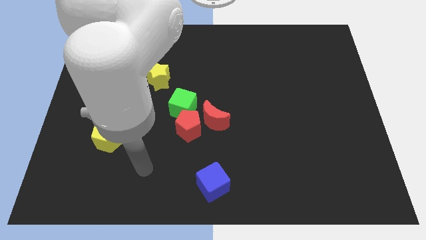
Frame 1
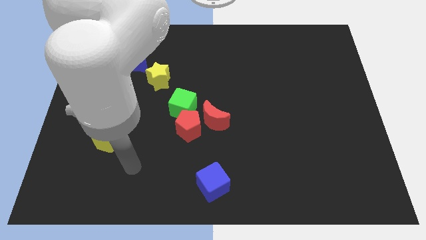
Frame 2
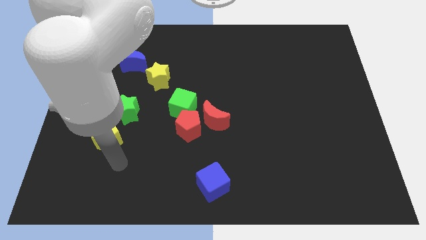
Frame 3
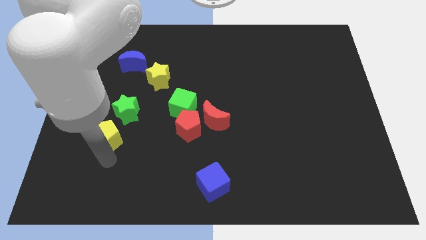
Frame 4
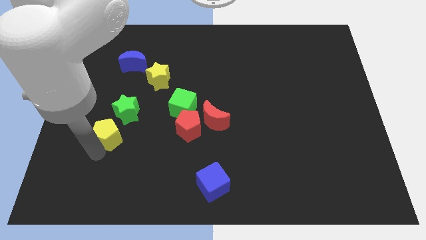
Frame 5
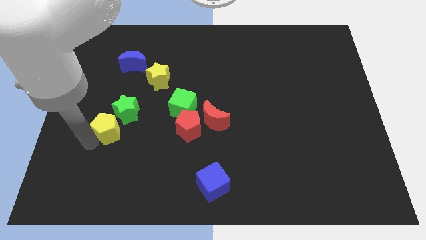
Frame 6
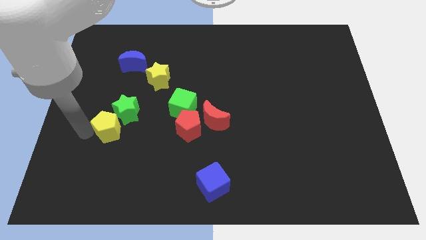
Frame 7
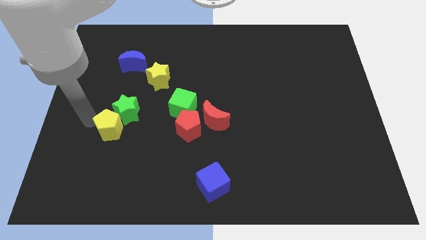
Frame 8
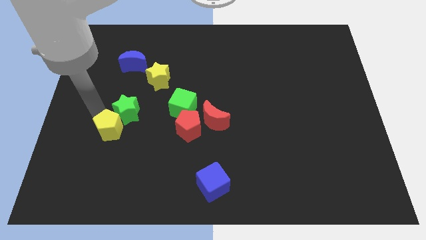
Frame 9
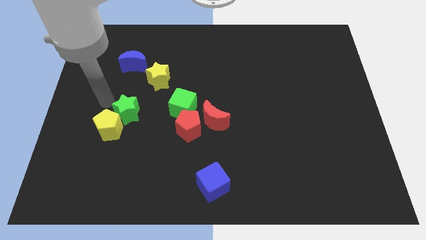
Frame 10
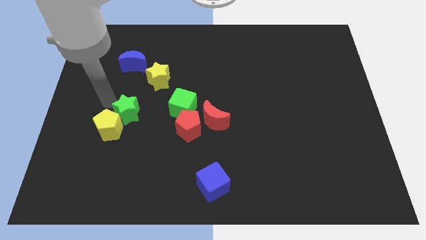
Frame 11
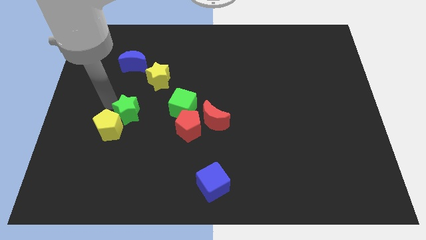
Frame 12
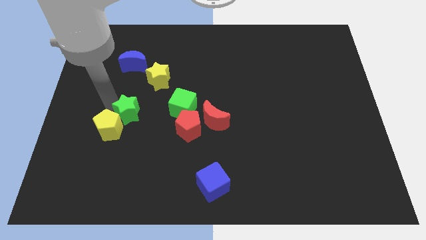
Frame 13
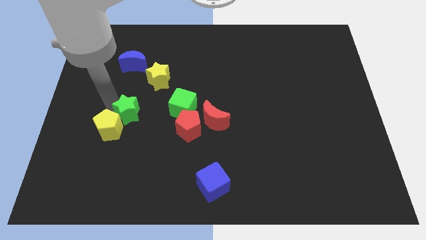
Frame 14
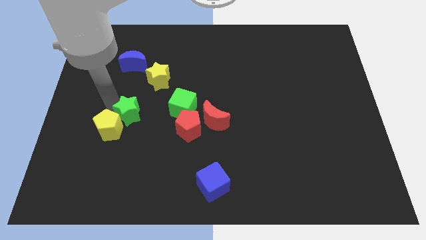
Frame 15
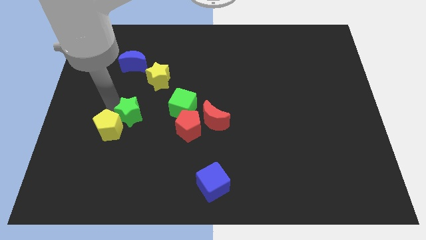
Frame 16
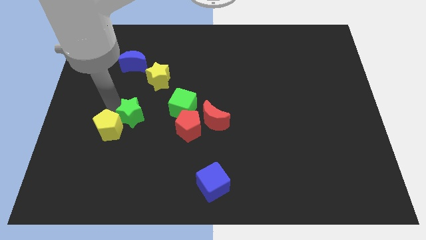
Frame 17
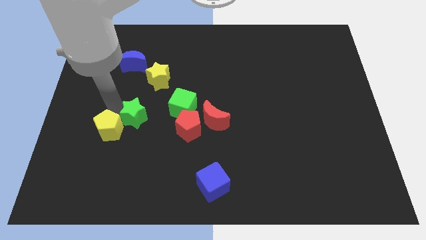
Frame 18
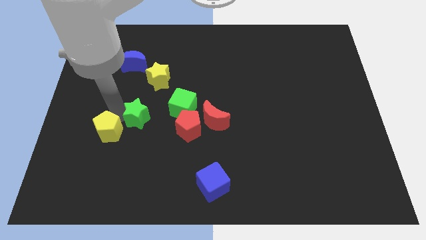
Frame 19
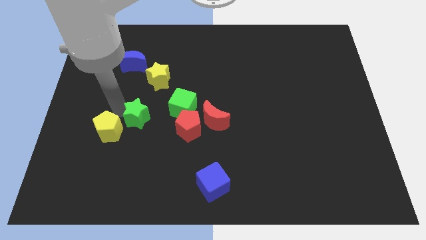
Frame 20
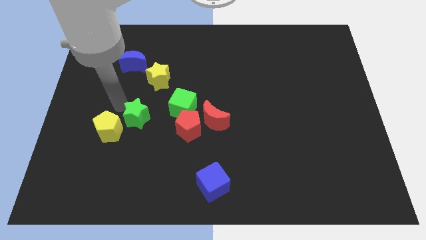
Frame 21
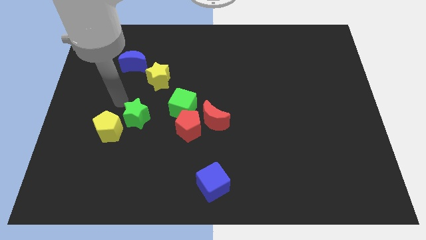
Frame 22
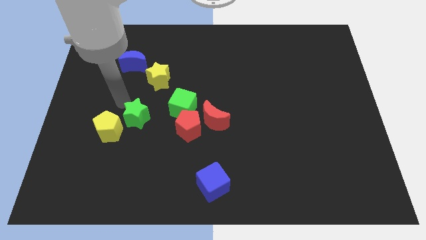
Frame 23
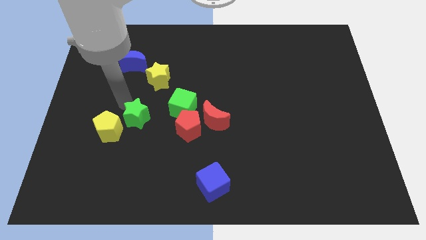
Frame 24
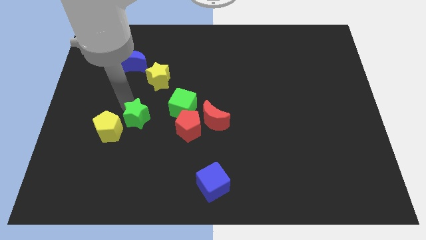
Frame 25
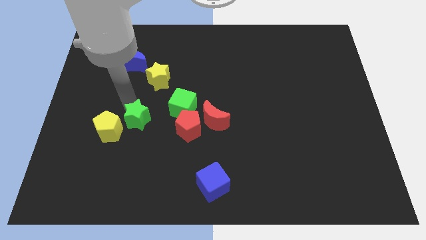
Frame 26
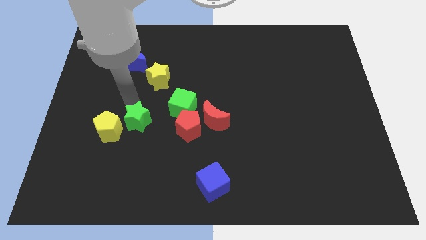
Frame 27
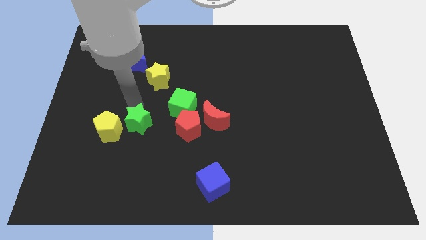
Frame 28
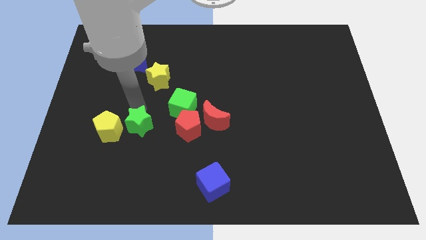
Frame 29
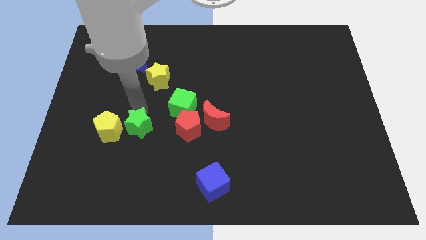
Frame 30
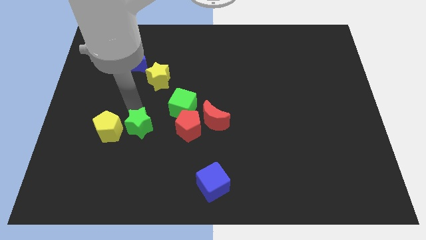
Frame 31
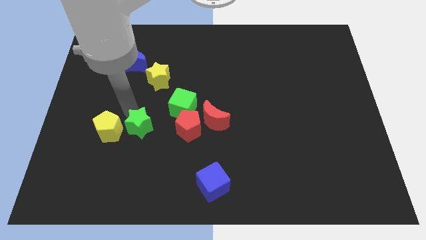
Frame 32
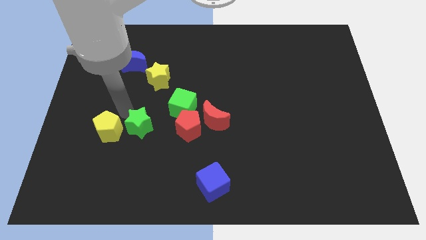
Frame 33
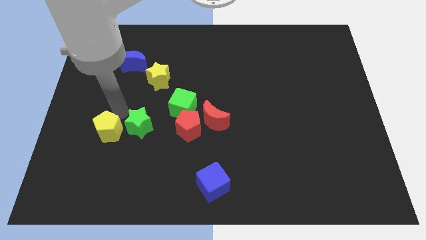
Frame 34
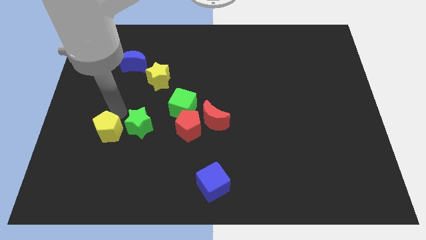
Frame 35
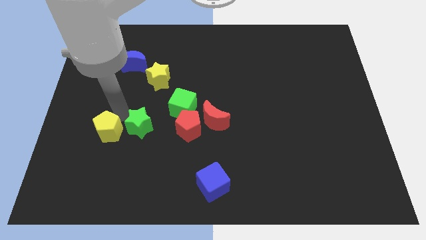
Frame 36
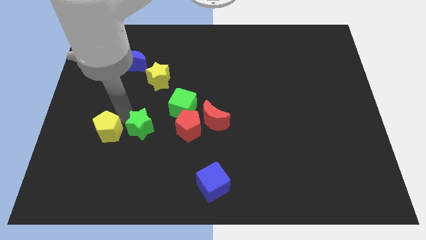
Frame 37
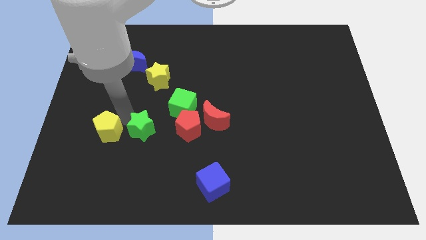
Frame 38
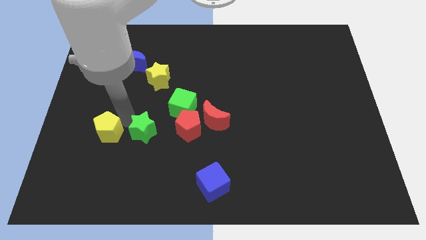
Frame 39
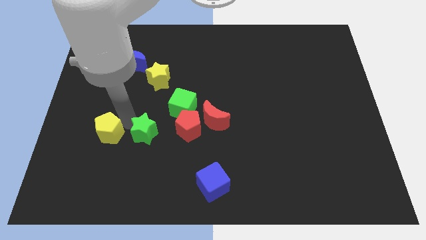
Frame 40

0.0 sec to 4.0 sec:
move the green star down and right diagonally a little bit

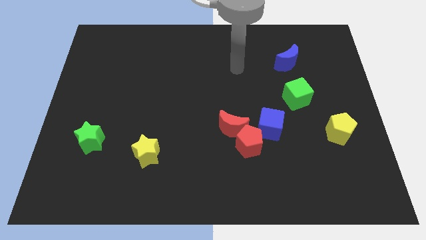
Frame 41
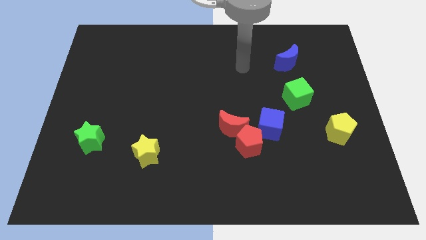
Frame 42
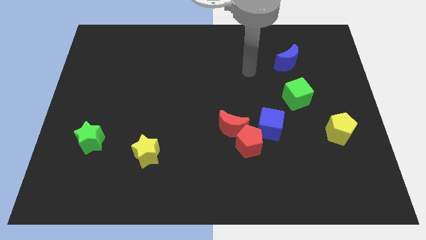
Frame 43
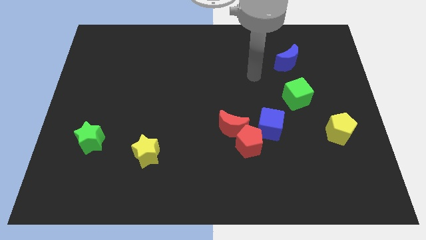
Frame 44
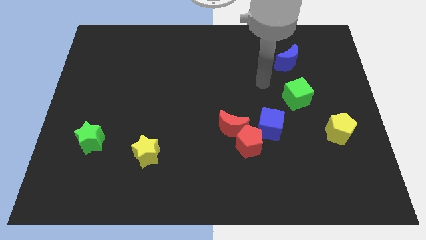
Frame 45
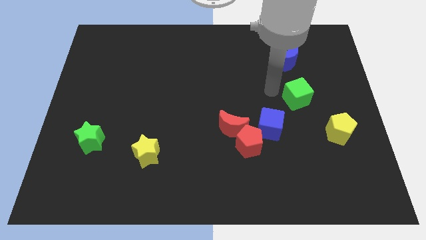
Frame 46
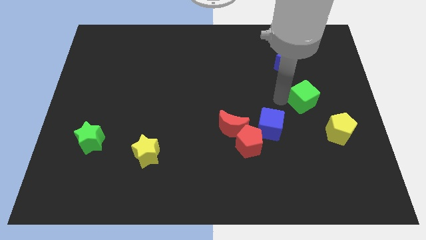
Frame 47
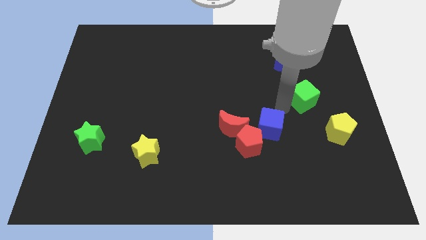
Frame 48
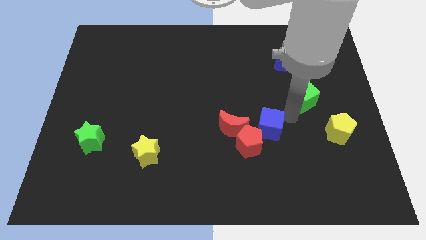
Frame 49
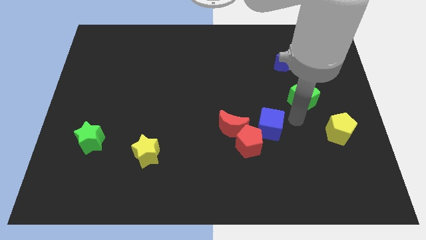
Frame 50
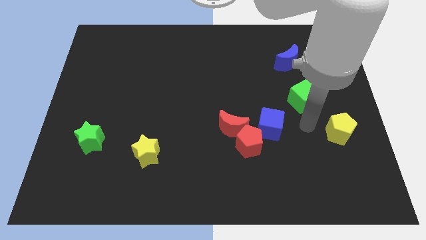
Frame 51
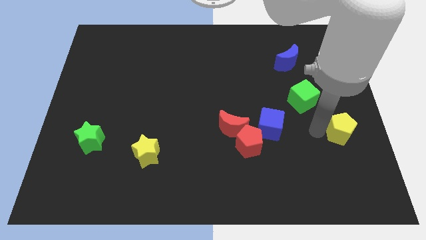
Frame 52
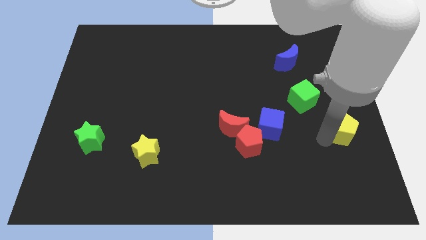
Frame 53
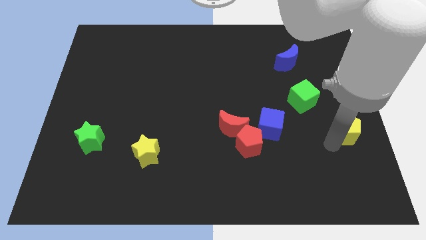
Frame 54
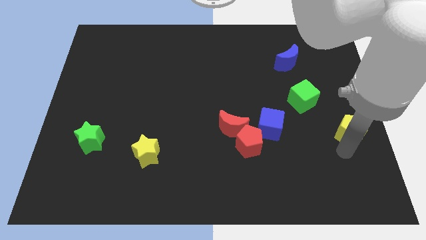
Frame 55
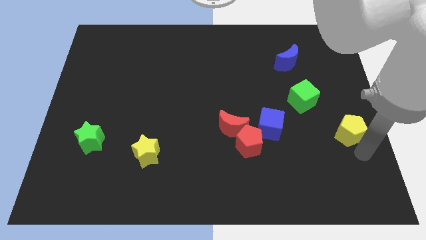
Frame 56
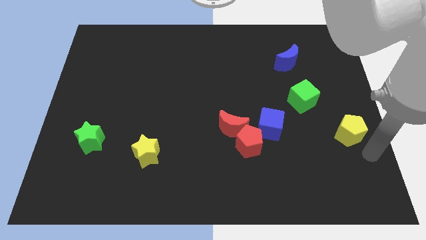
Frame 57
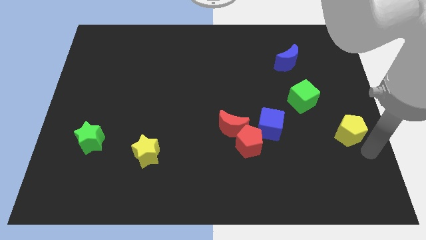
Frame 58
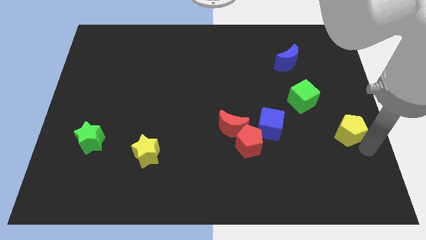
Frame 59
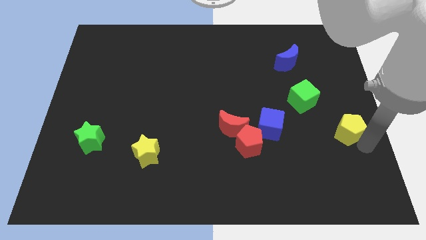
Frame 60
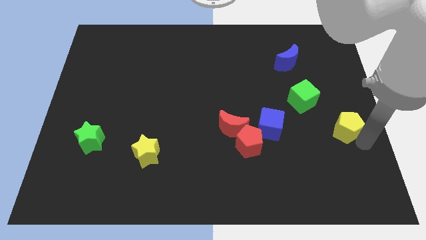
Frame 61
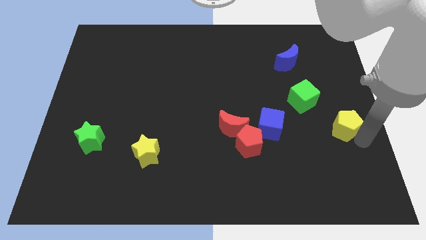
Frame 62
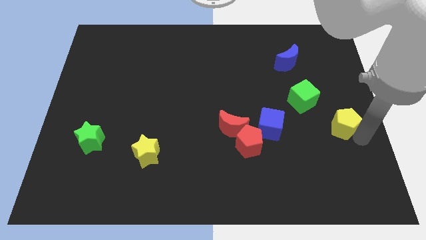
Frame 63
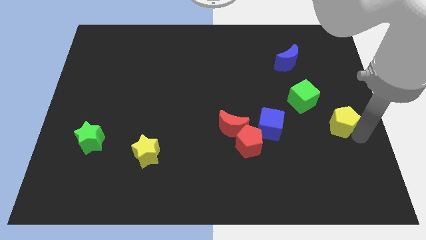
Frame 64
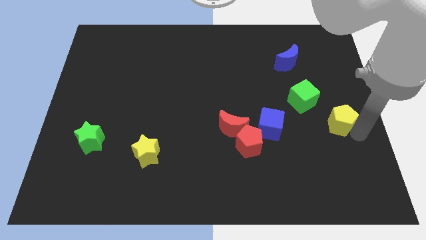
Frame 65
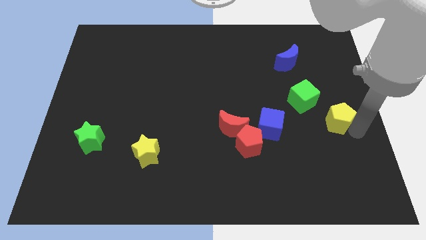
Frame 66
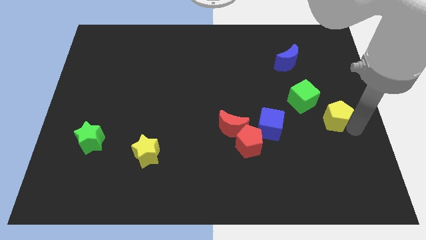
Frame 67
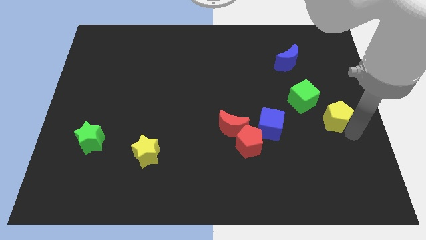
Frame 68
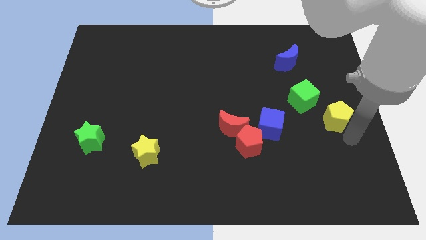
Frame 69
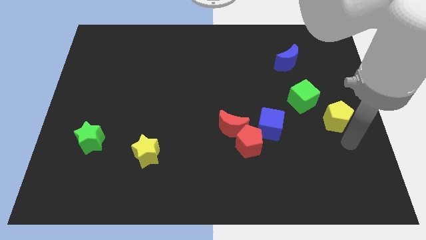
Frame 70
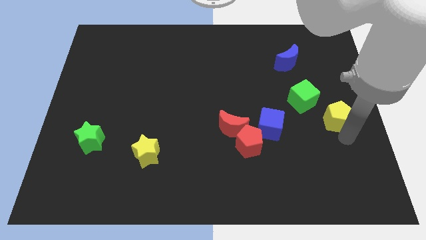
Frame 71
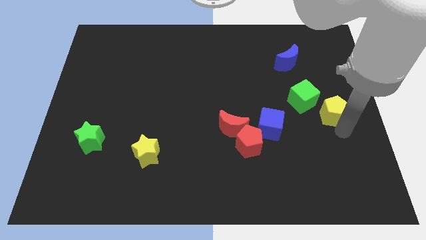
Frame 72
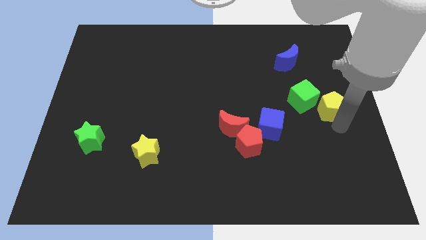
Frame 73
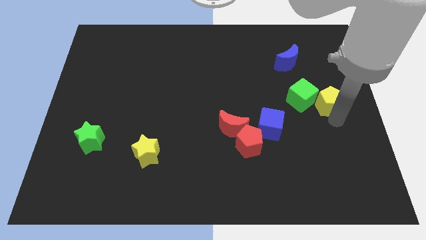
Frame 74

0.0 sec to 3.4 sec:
slightly slide the yellow pentagon upwards

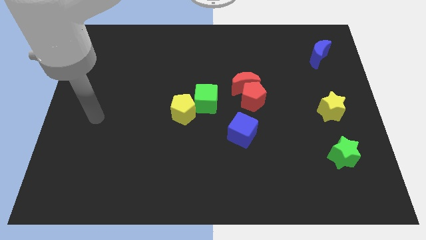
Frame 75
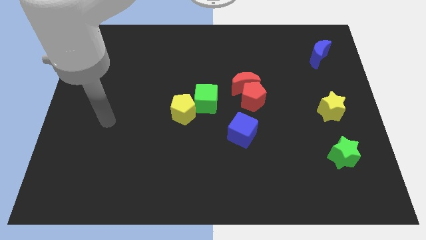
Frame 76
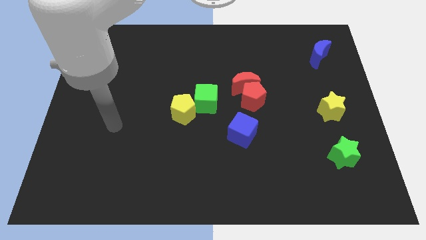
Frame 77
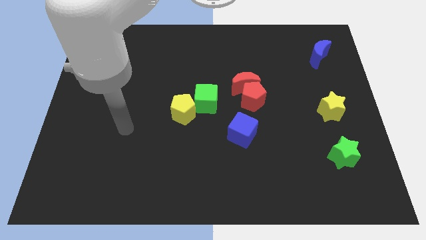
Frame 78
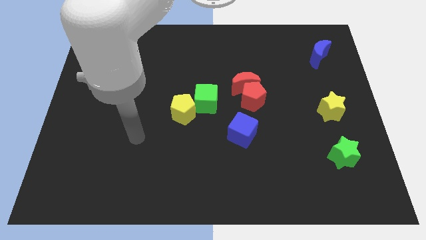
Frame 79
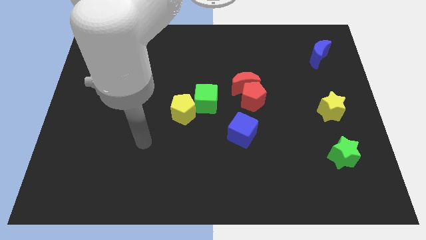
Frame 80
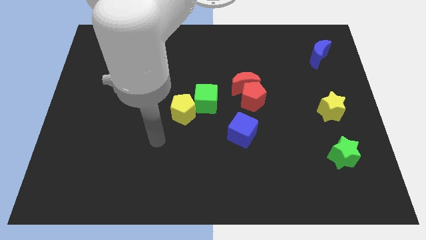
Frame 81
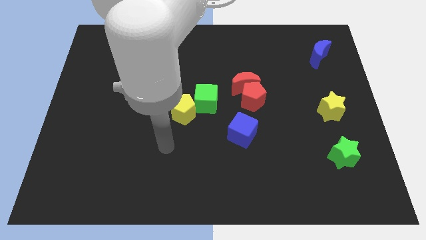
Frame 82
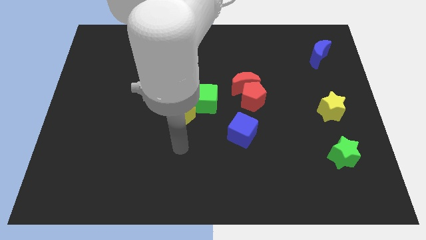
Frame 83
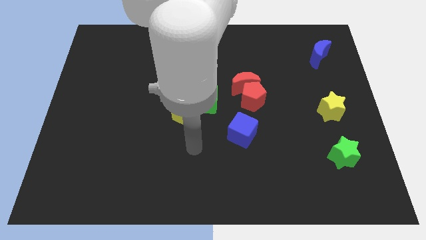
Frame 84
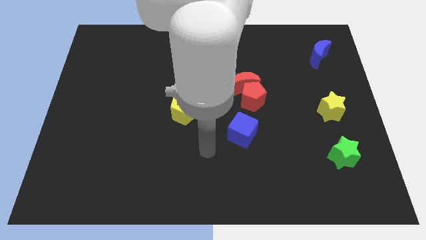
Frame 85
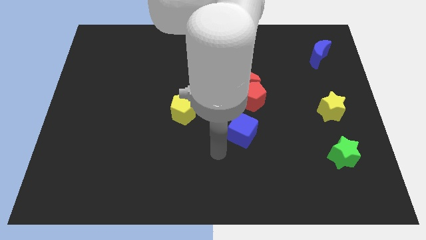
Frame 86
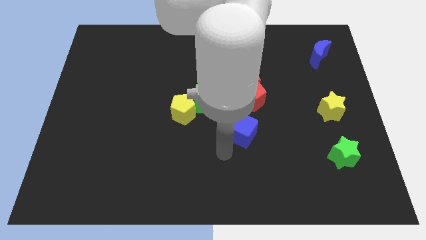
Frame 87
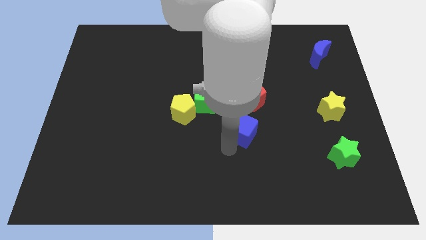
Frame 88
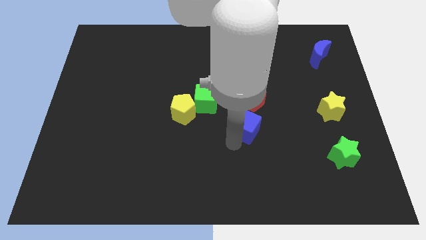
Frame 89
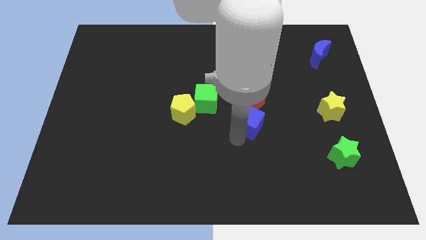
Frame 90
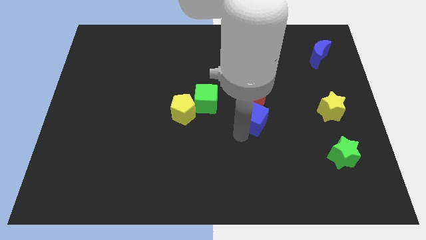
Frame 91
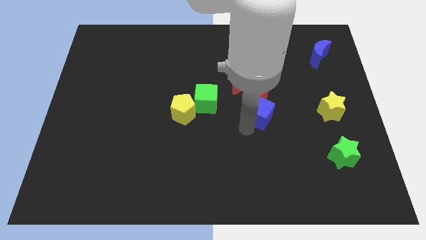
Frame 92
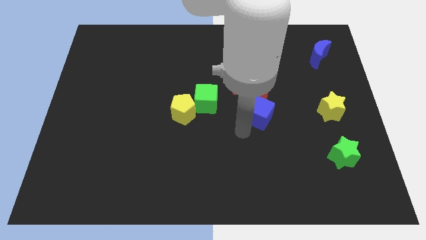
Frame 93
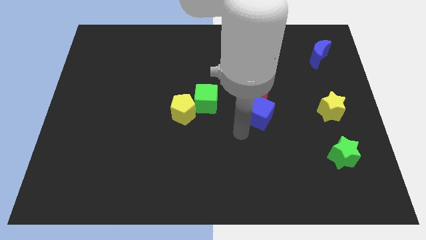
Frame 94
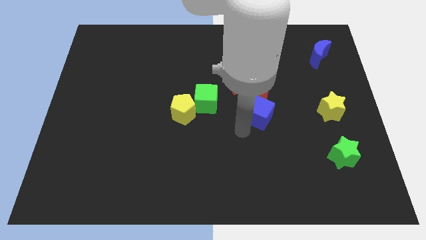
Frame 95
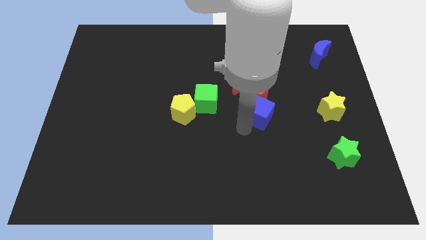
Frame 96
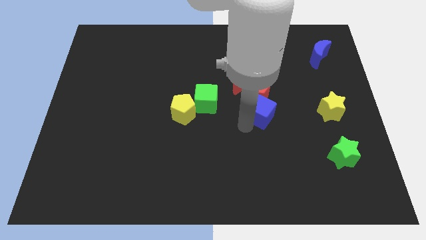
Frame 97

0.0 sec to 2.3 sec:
slightly move the blue cube upwards and to the right
